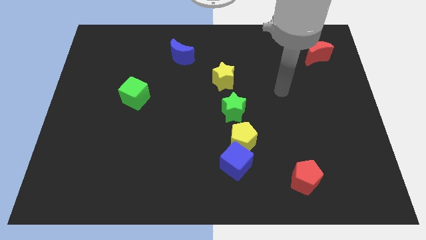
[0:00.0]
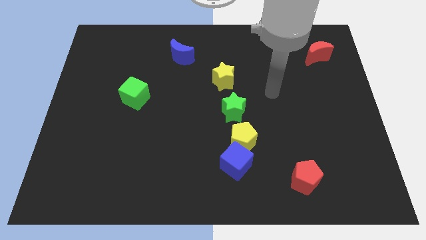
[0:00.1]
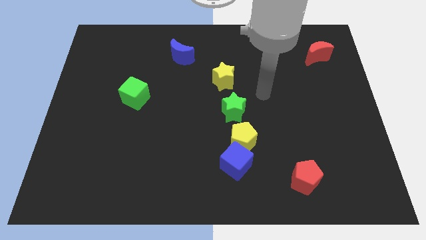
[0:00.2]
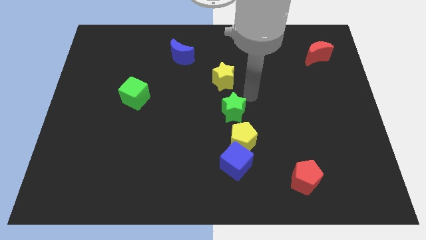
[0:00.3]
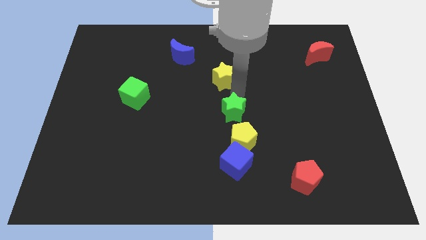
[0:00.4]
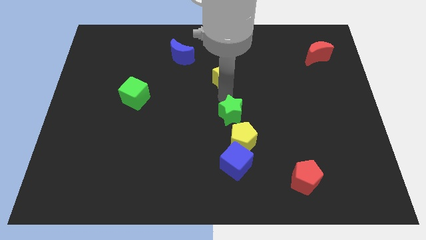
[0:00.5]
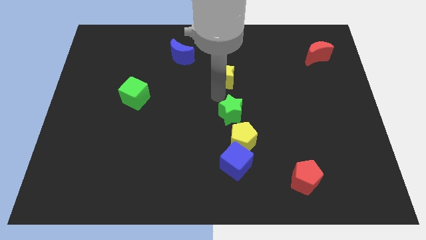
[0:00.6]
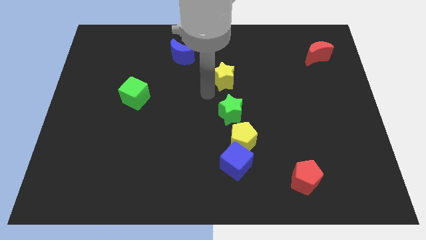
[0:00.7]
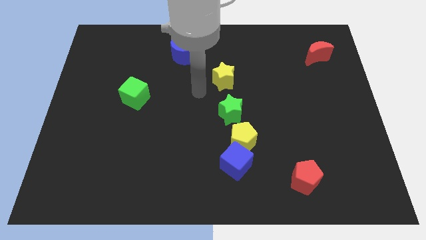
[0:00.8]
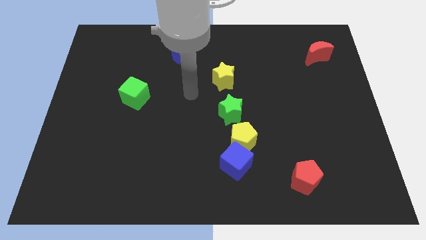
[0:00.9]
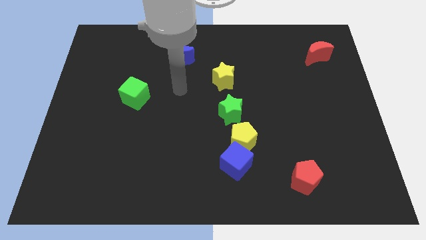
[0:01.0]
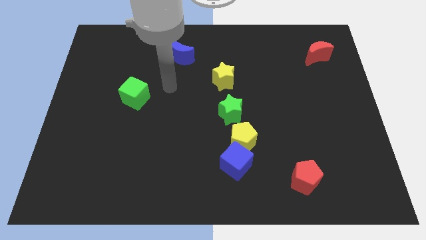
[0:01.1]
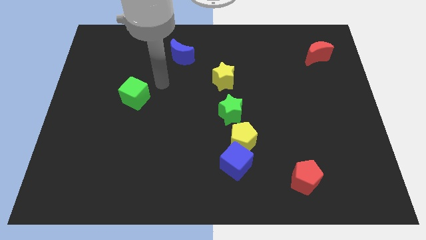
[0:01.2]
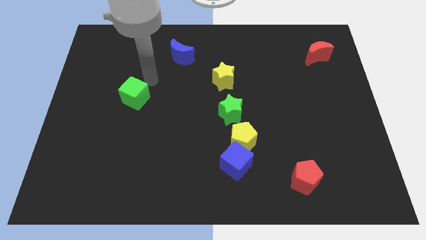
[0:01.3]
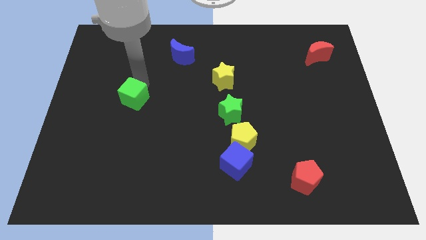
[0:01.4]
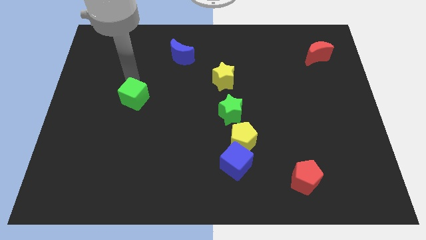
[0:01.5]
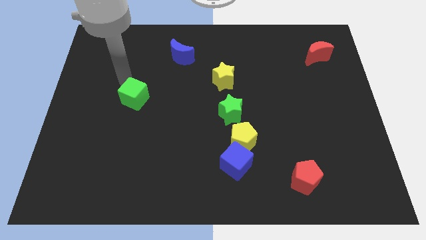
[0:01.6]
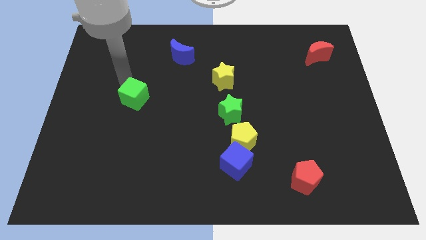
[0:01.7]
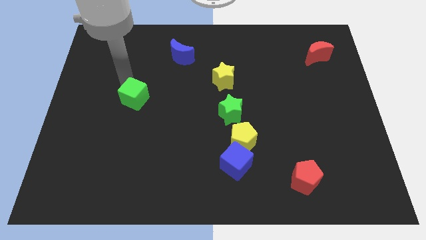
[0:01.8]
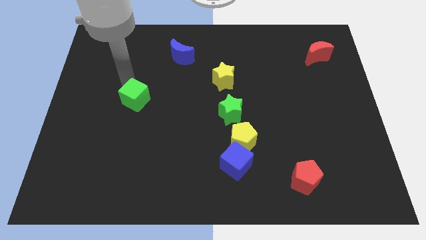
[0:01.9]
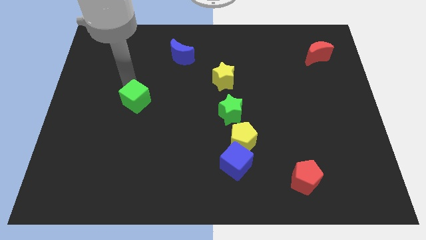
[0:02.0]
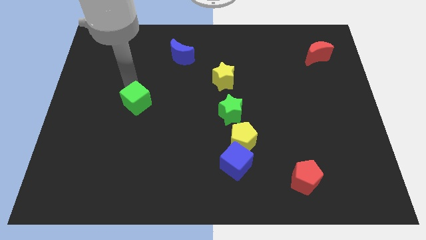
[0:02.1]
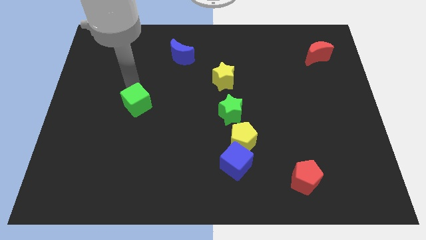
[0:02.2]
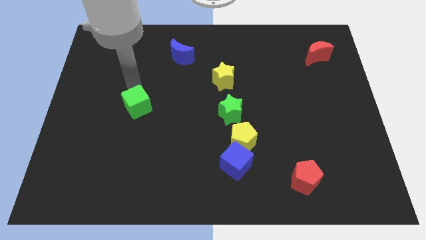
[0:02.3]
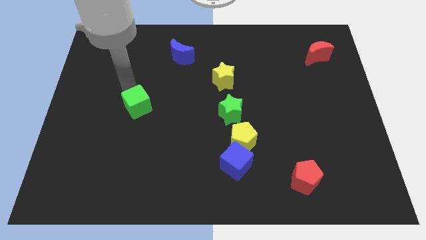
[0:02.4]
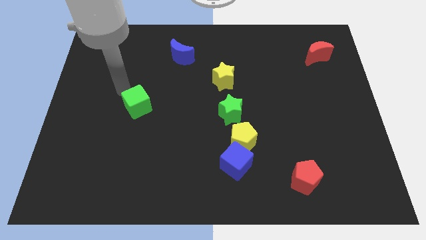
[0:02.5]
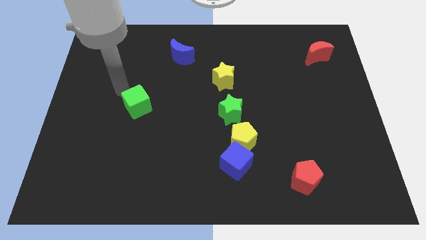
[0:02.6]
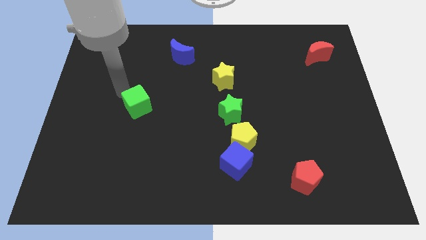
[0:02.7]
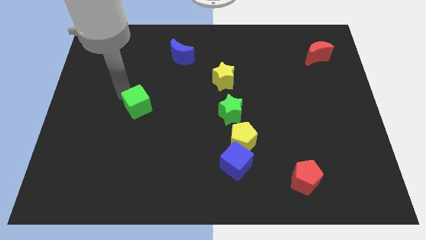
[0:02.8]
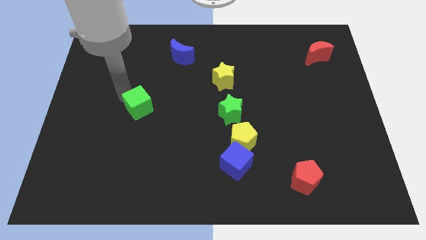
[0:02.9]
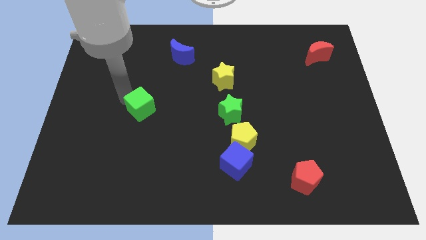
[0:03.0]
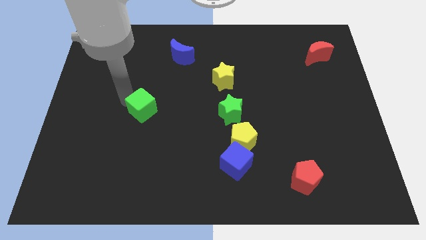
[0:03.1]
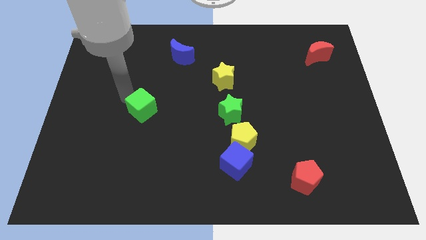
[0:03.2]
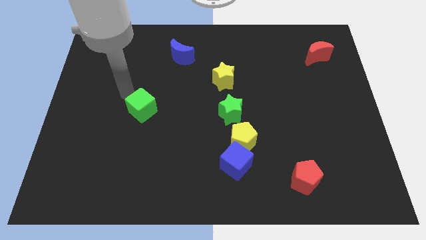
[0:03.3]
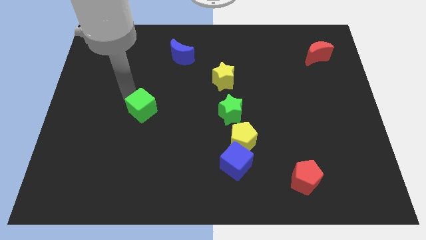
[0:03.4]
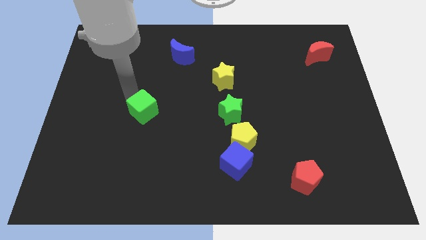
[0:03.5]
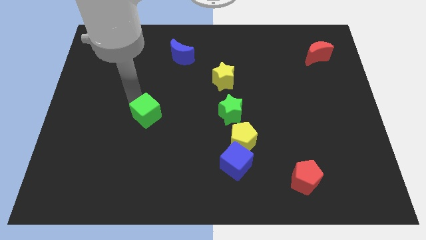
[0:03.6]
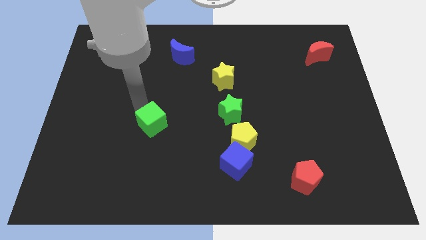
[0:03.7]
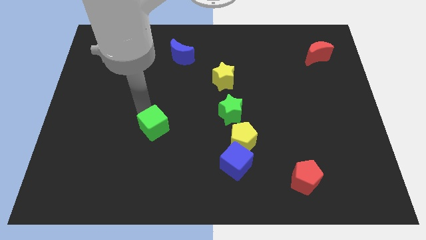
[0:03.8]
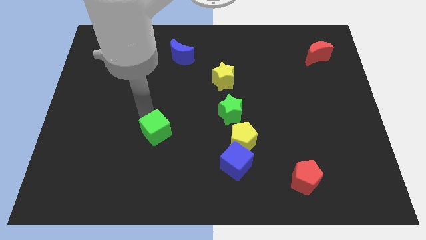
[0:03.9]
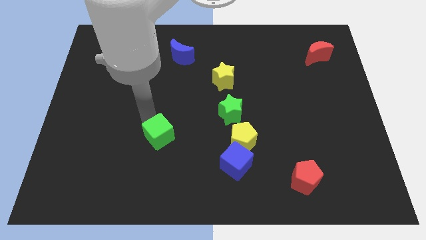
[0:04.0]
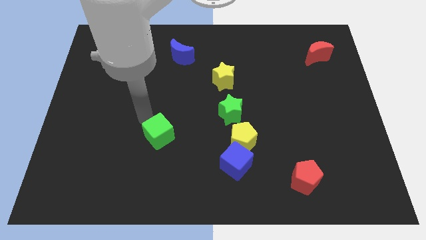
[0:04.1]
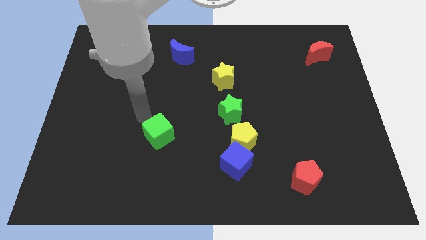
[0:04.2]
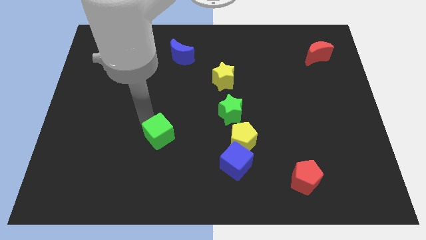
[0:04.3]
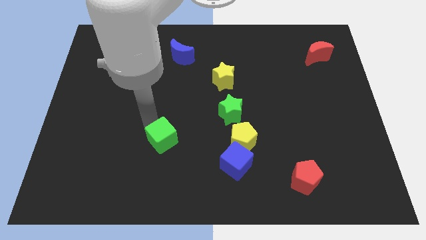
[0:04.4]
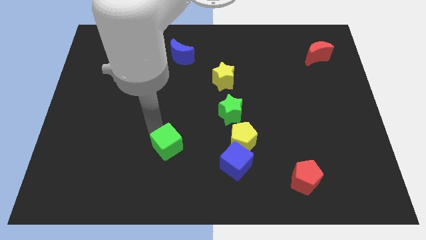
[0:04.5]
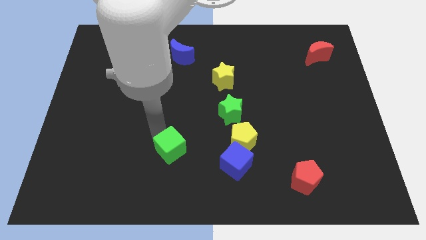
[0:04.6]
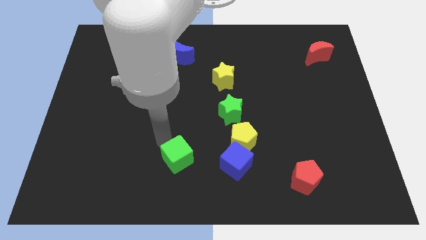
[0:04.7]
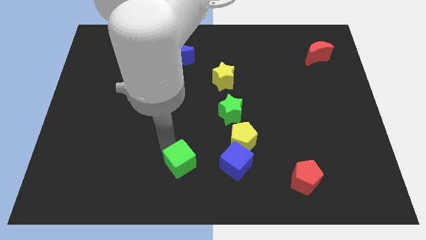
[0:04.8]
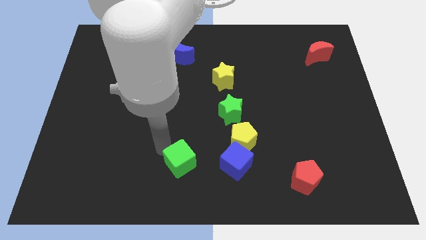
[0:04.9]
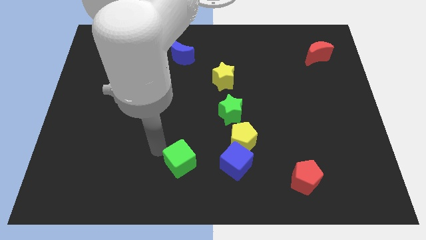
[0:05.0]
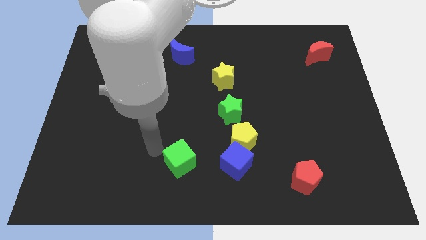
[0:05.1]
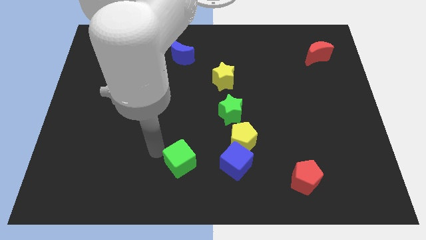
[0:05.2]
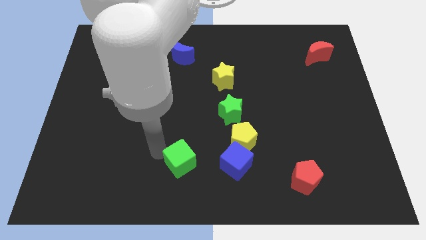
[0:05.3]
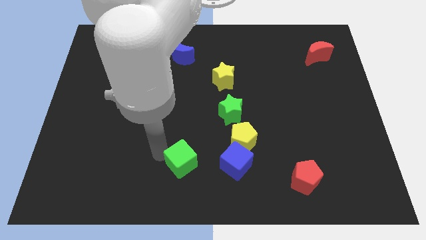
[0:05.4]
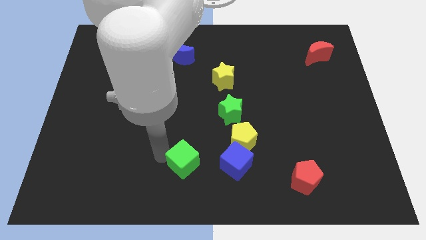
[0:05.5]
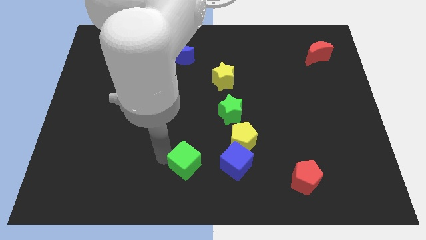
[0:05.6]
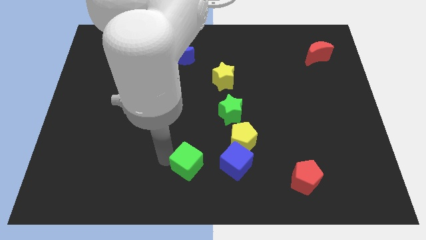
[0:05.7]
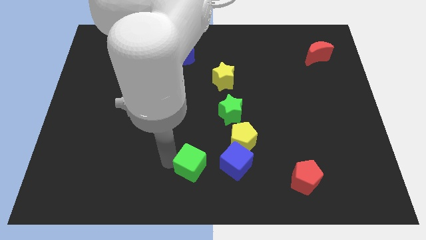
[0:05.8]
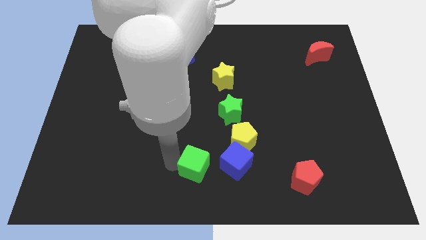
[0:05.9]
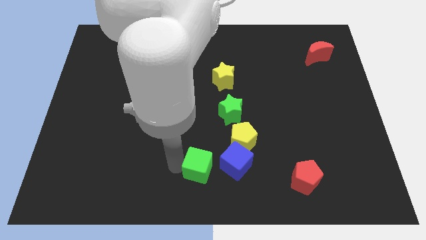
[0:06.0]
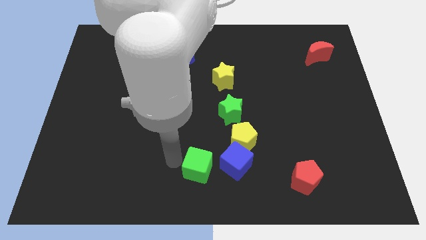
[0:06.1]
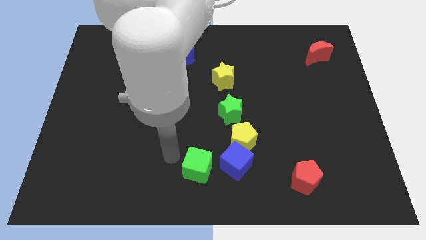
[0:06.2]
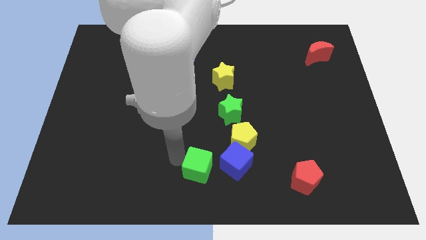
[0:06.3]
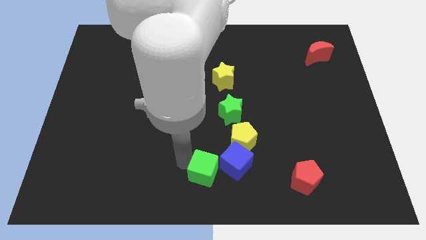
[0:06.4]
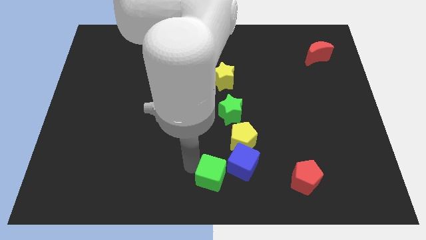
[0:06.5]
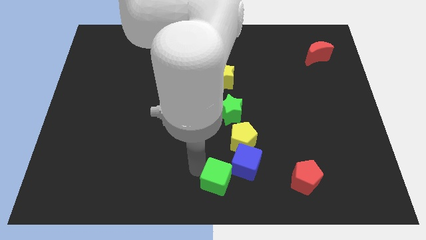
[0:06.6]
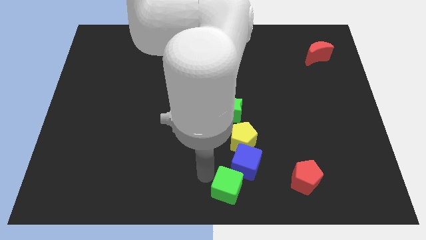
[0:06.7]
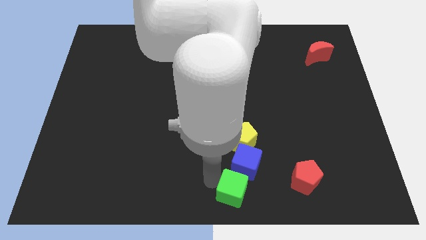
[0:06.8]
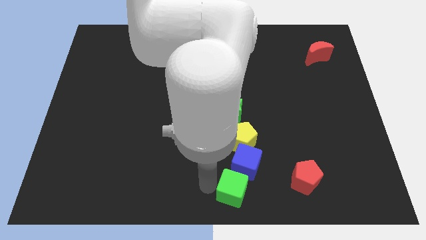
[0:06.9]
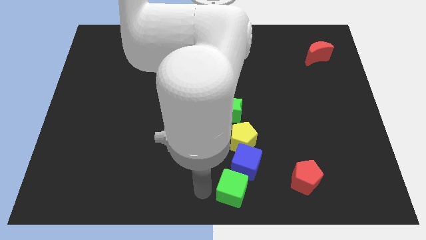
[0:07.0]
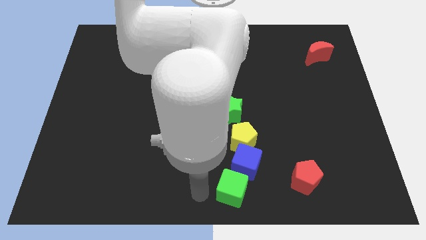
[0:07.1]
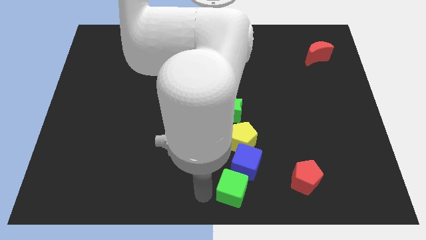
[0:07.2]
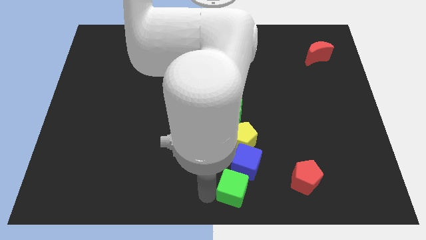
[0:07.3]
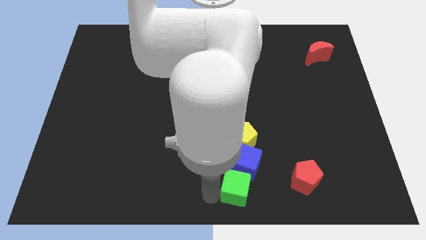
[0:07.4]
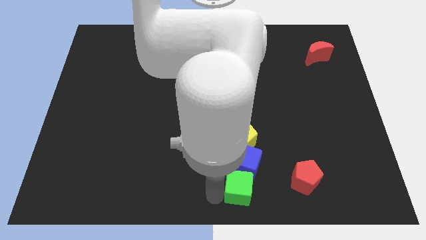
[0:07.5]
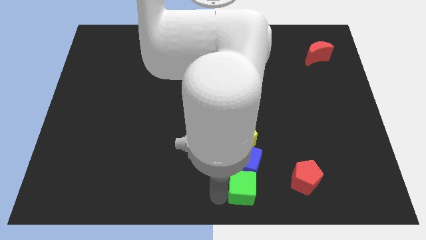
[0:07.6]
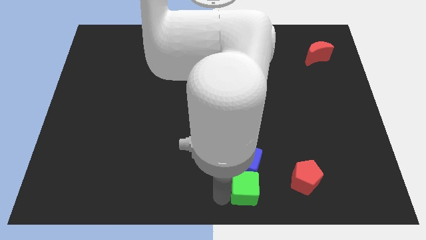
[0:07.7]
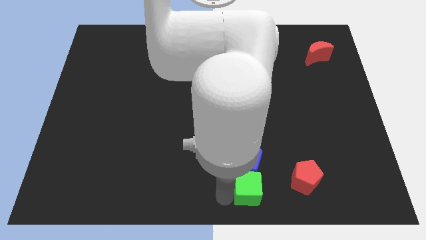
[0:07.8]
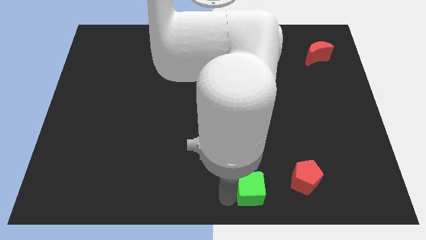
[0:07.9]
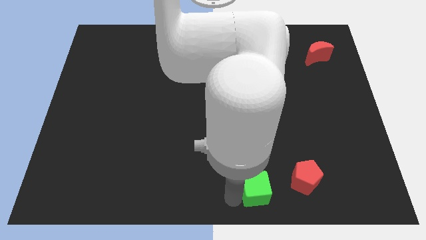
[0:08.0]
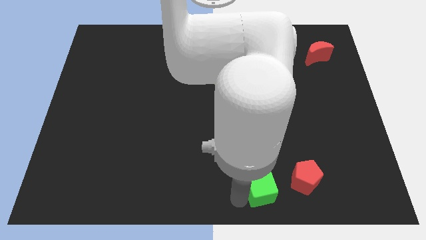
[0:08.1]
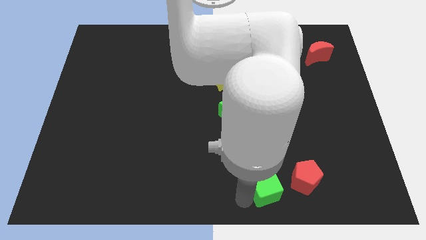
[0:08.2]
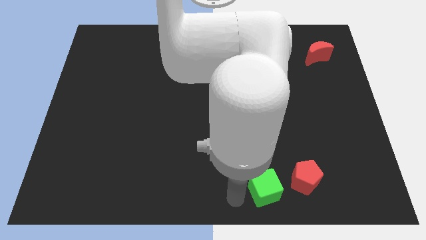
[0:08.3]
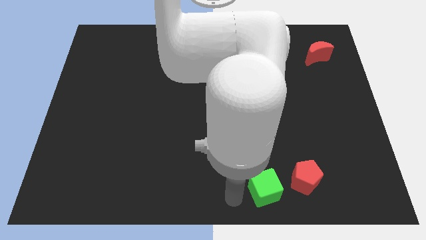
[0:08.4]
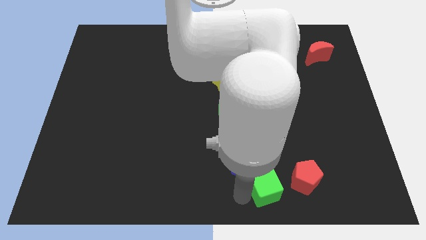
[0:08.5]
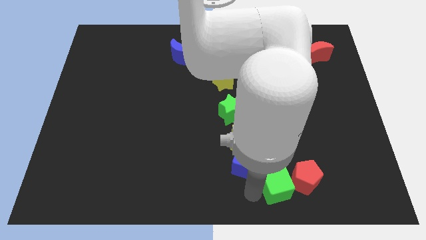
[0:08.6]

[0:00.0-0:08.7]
put the green cube next to the red pentagon
